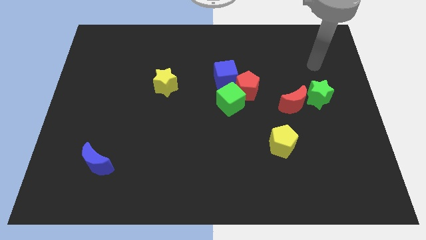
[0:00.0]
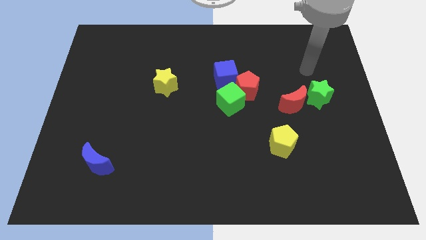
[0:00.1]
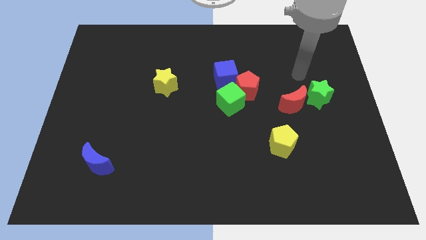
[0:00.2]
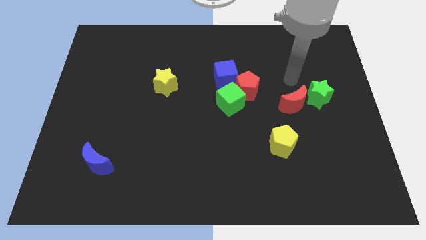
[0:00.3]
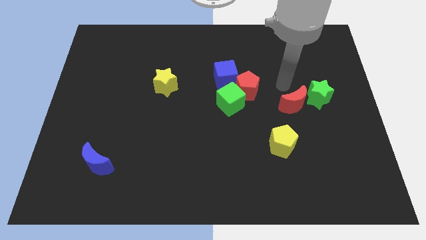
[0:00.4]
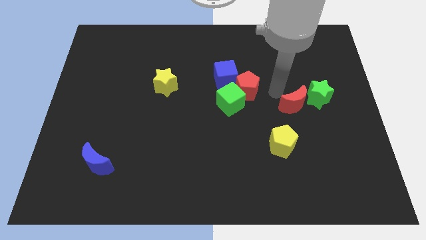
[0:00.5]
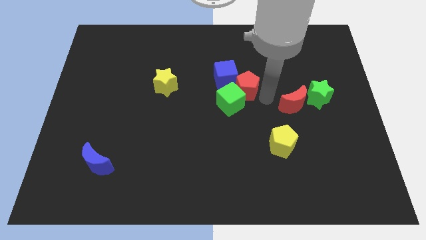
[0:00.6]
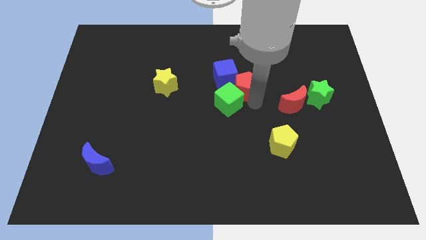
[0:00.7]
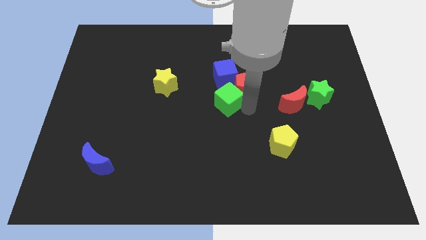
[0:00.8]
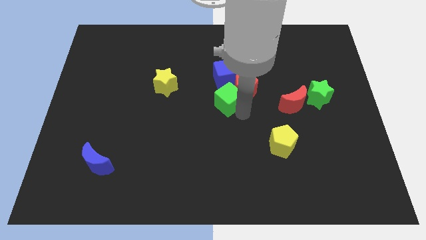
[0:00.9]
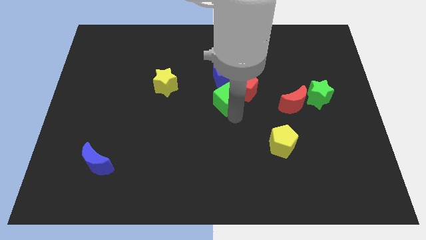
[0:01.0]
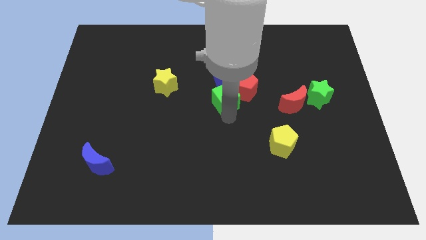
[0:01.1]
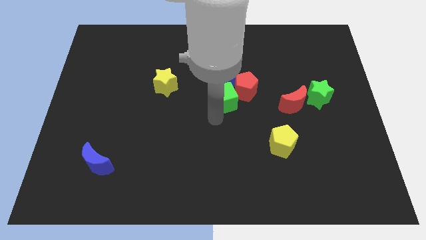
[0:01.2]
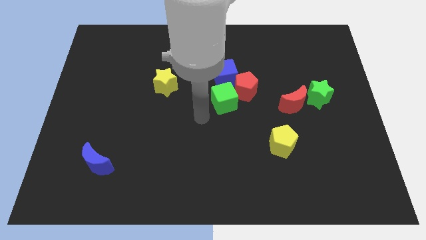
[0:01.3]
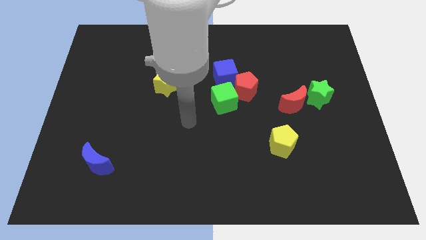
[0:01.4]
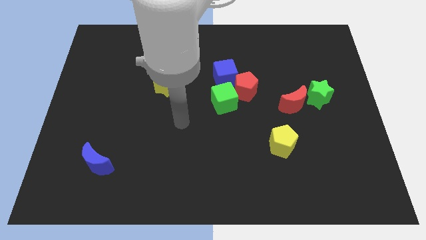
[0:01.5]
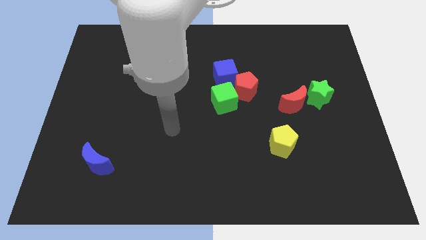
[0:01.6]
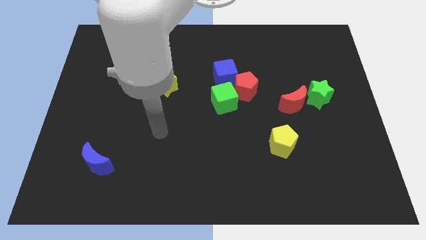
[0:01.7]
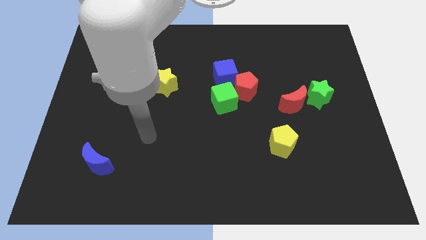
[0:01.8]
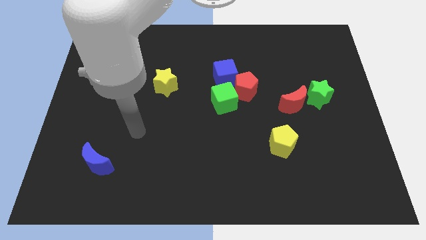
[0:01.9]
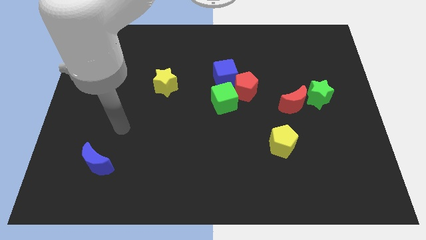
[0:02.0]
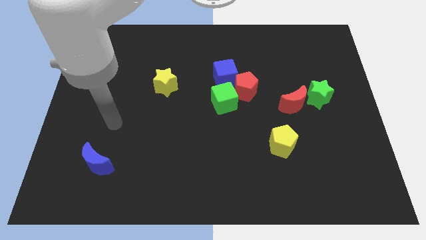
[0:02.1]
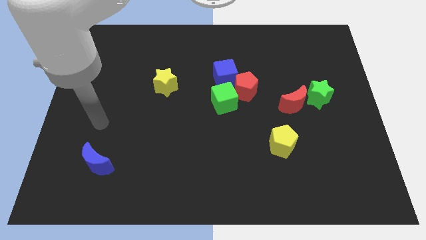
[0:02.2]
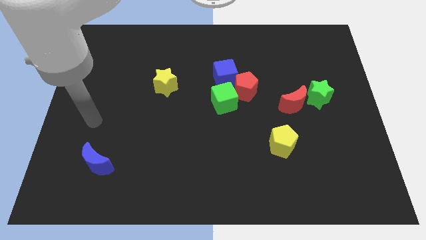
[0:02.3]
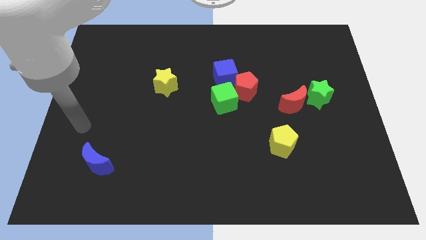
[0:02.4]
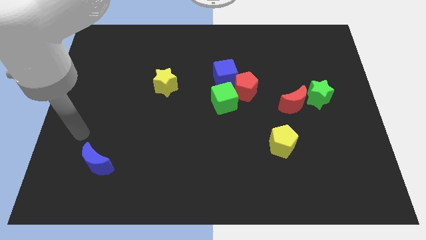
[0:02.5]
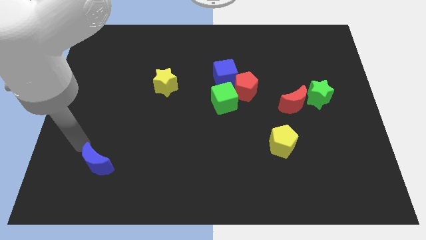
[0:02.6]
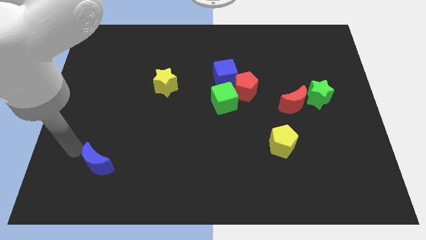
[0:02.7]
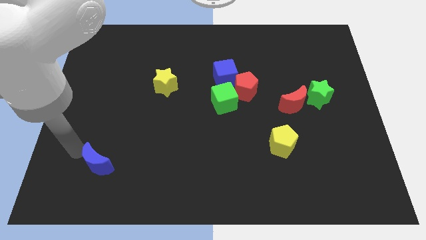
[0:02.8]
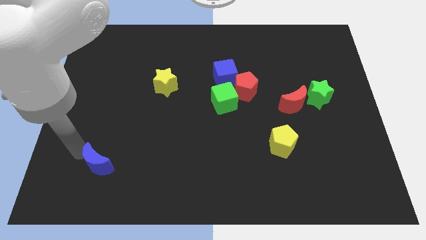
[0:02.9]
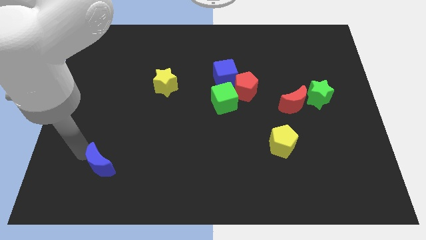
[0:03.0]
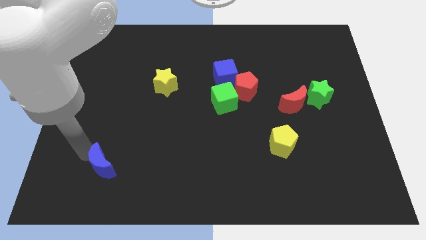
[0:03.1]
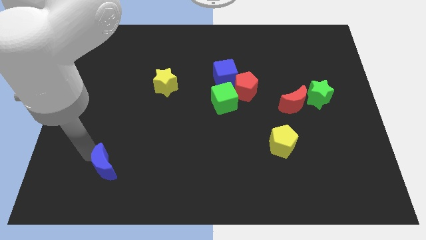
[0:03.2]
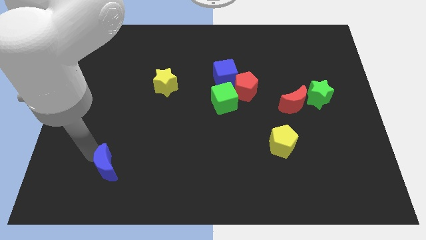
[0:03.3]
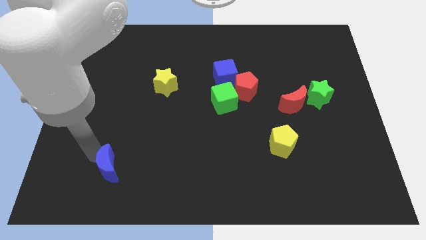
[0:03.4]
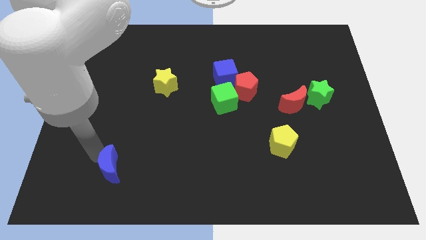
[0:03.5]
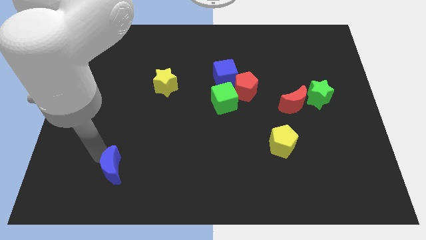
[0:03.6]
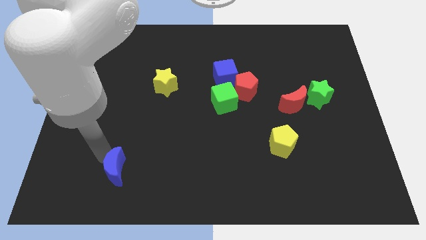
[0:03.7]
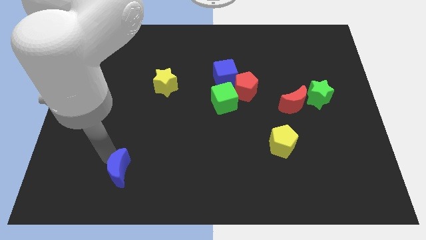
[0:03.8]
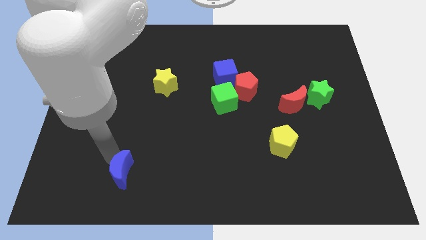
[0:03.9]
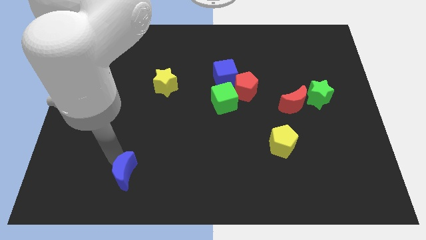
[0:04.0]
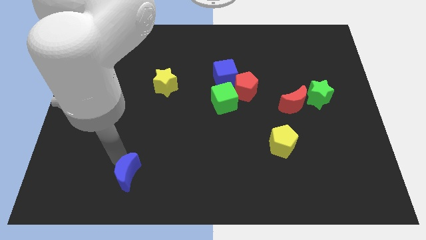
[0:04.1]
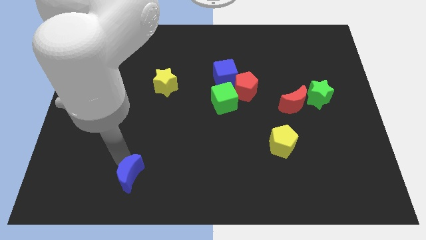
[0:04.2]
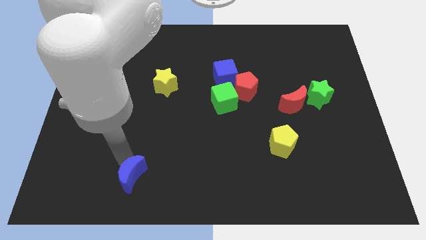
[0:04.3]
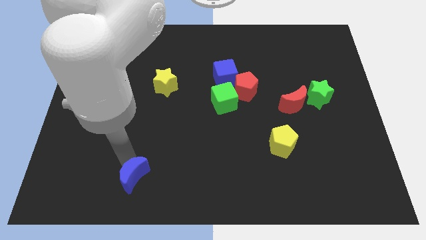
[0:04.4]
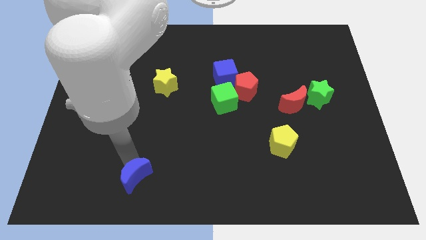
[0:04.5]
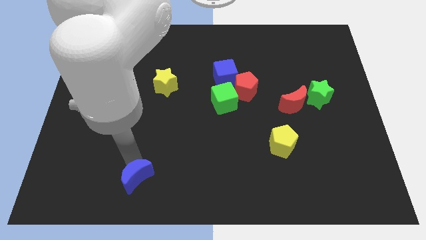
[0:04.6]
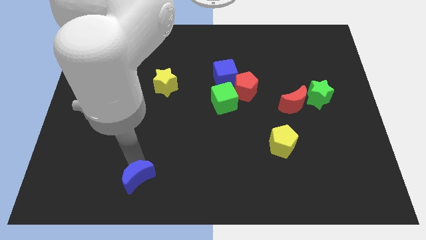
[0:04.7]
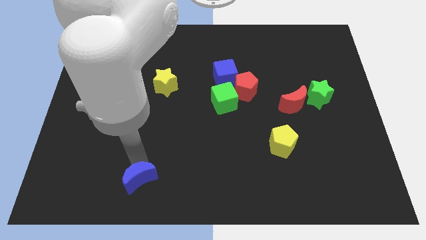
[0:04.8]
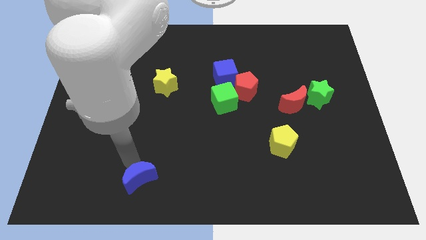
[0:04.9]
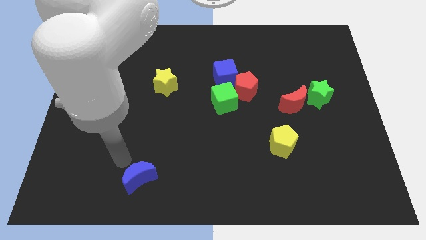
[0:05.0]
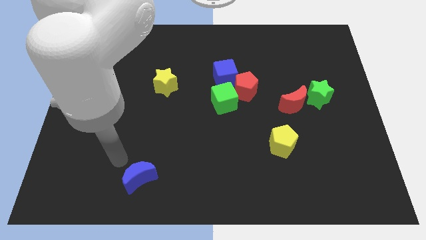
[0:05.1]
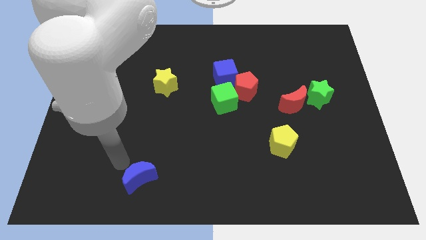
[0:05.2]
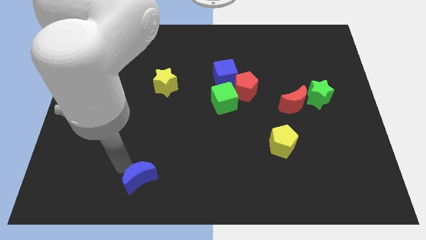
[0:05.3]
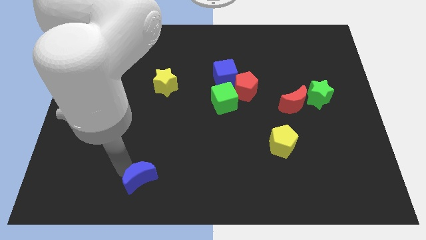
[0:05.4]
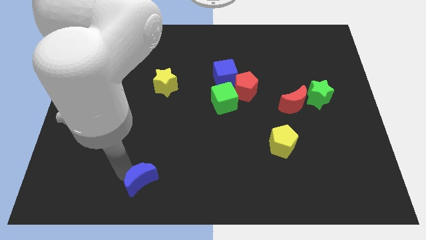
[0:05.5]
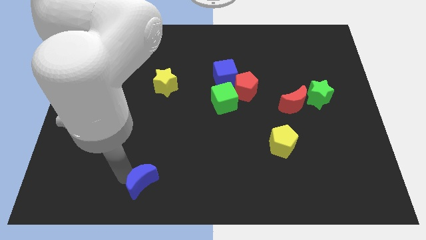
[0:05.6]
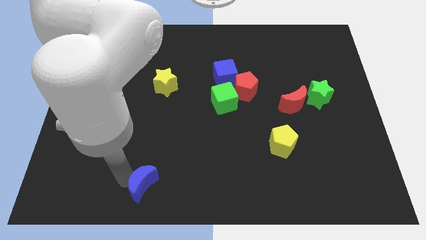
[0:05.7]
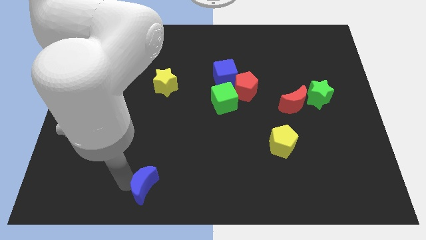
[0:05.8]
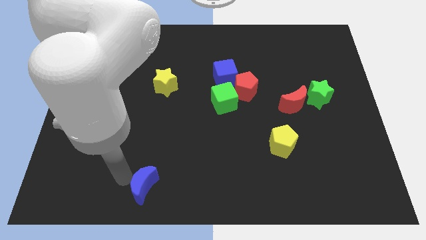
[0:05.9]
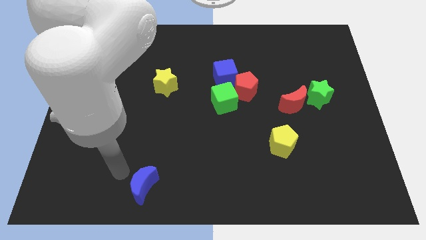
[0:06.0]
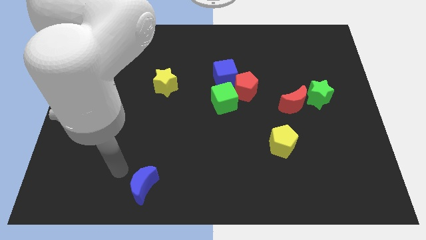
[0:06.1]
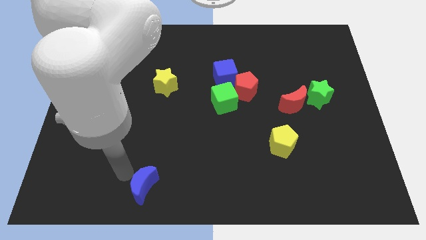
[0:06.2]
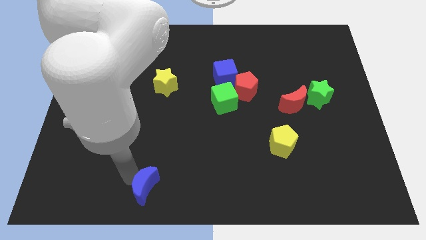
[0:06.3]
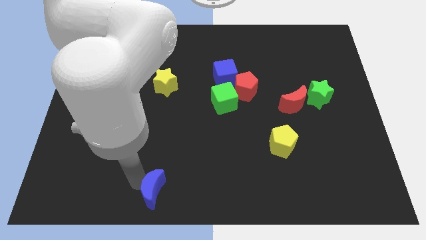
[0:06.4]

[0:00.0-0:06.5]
move the blue moon to the bottom side
